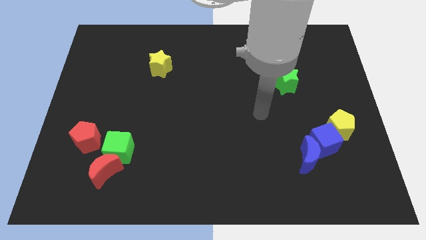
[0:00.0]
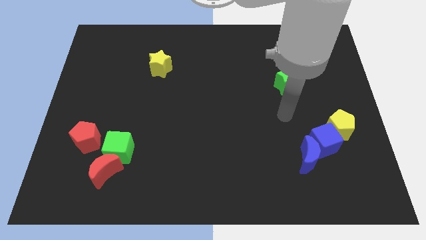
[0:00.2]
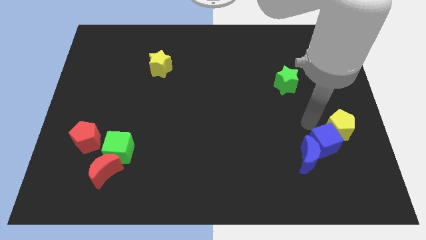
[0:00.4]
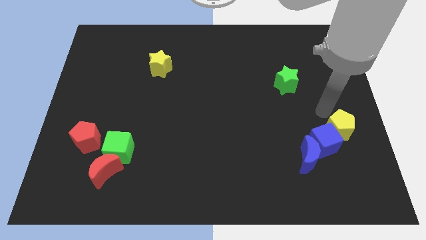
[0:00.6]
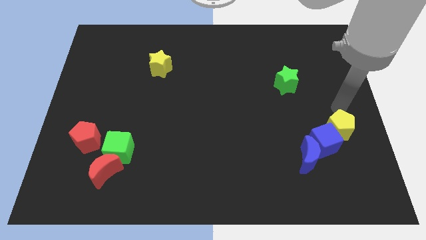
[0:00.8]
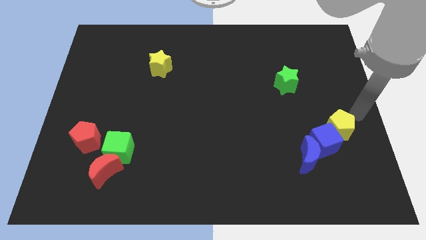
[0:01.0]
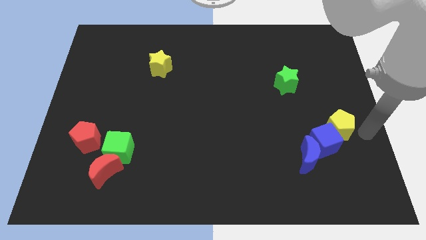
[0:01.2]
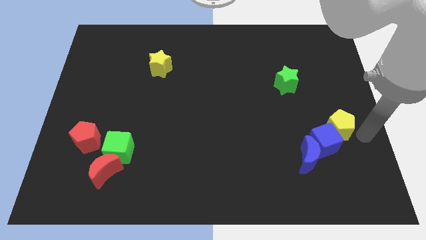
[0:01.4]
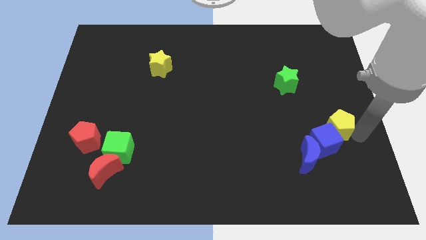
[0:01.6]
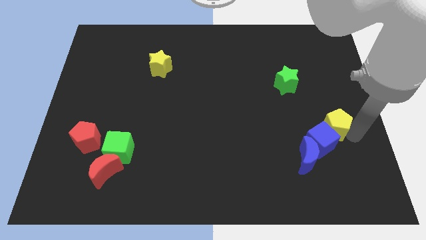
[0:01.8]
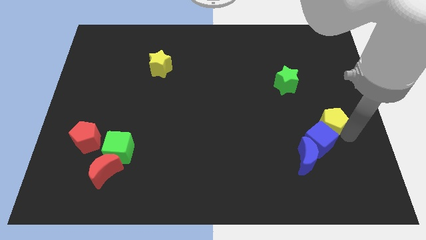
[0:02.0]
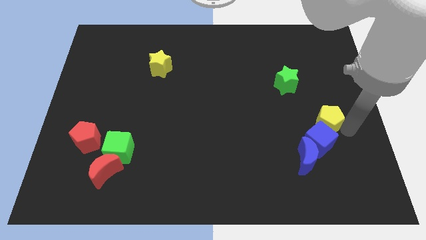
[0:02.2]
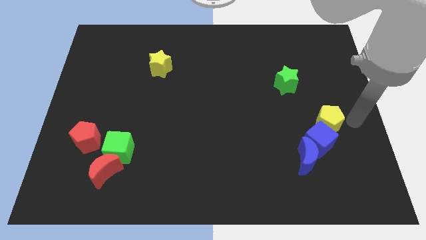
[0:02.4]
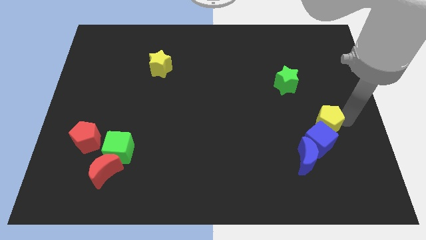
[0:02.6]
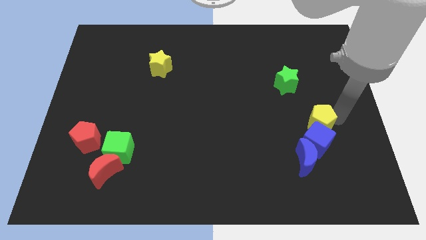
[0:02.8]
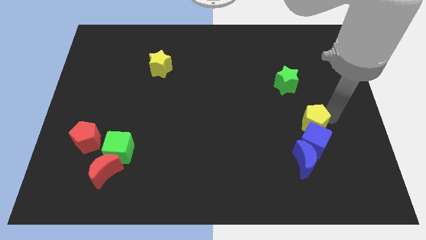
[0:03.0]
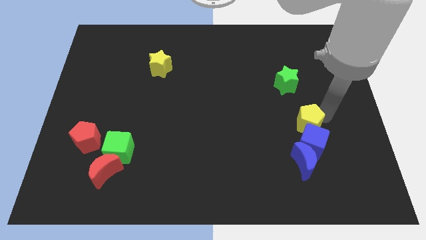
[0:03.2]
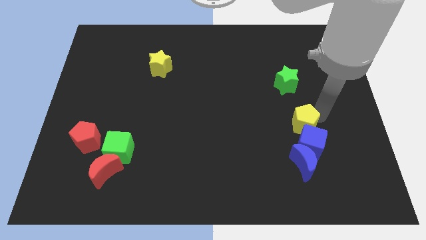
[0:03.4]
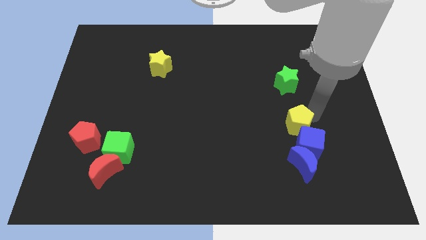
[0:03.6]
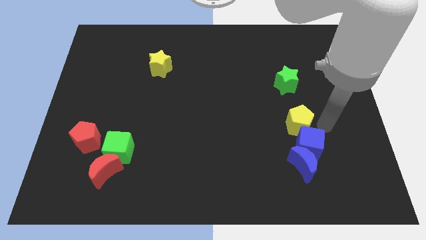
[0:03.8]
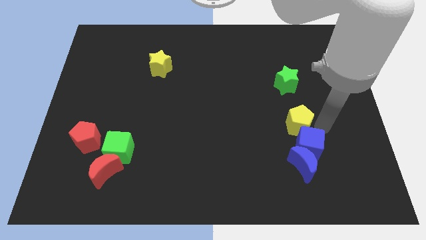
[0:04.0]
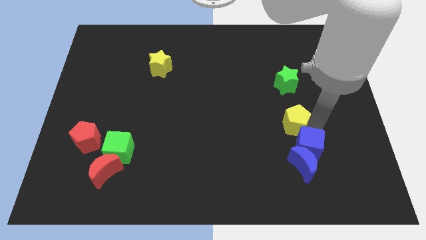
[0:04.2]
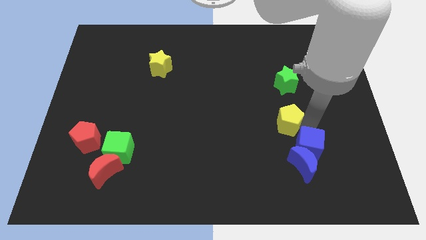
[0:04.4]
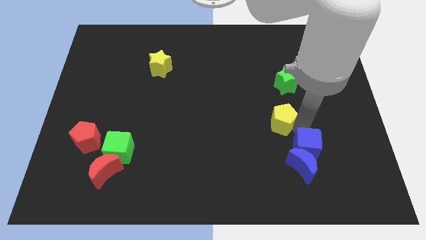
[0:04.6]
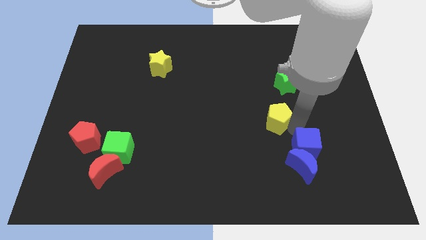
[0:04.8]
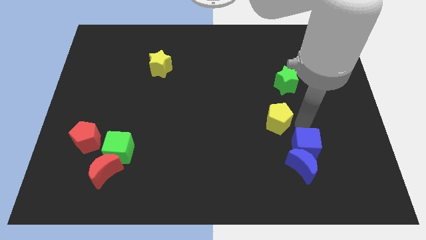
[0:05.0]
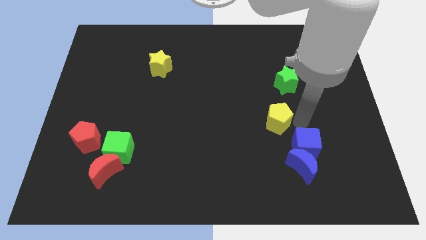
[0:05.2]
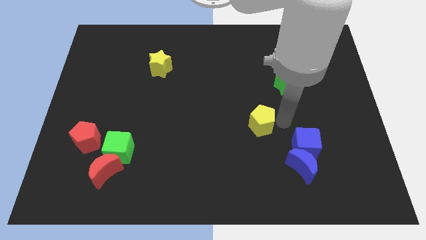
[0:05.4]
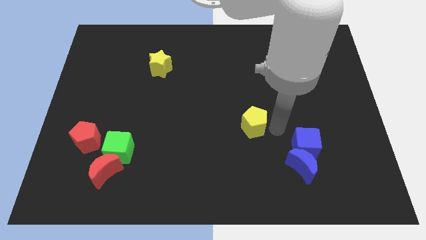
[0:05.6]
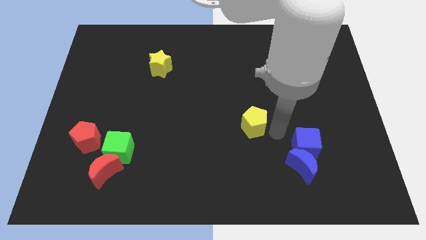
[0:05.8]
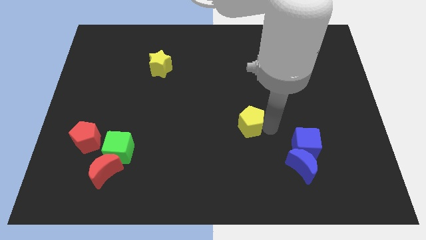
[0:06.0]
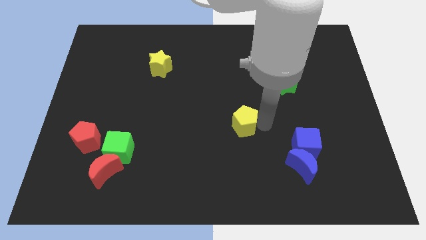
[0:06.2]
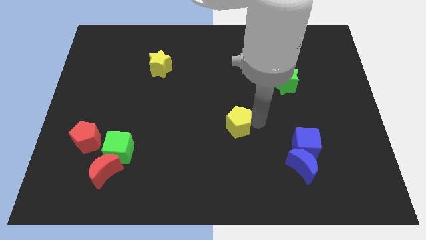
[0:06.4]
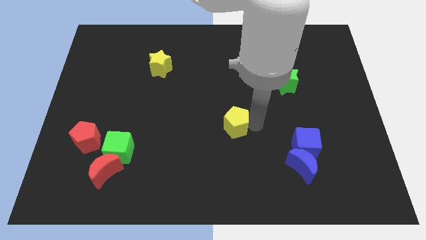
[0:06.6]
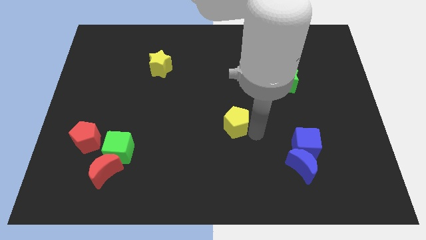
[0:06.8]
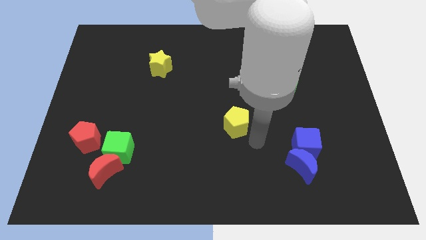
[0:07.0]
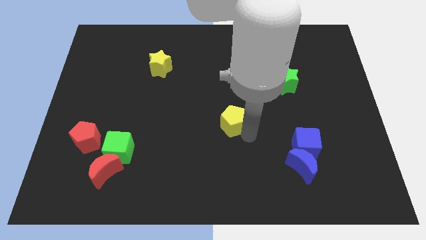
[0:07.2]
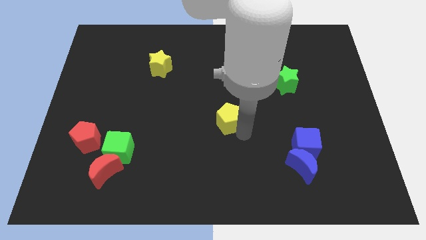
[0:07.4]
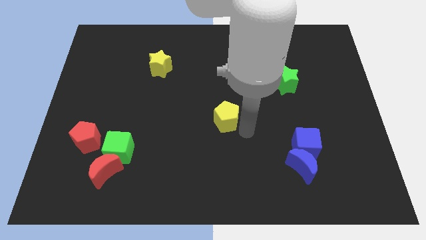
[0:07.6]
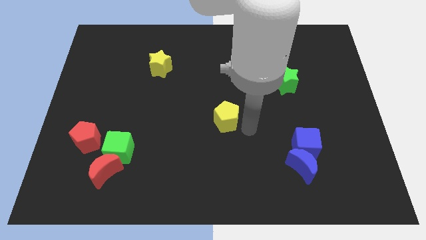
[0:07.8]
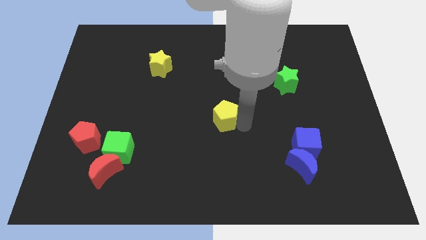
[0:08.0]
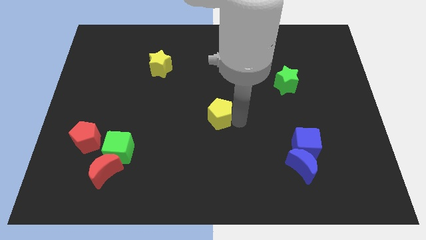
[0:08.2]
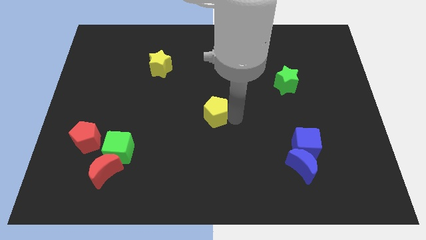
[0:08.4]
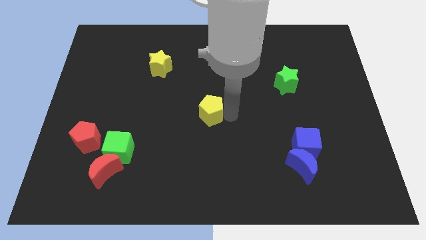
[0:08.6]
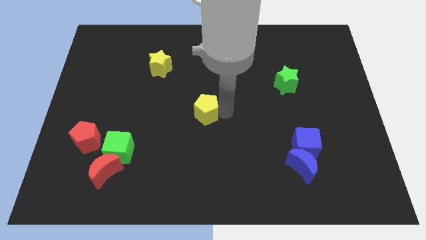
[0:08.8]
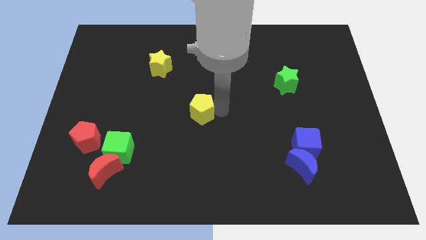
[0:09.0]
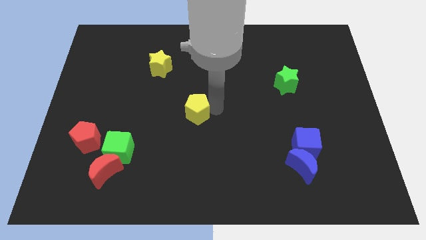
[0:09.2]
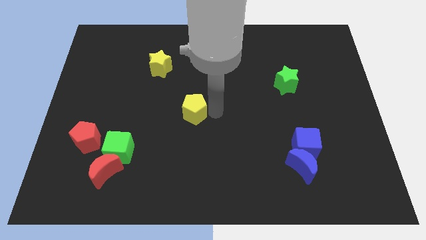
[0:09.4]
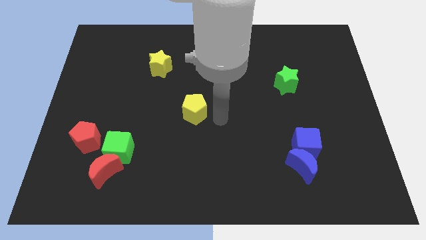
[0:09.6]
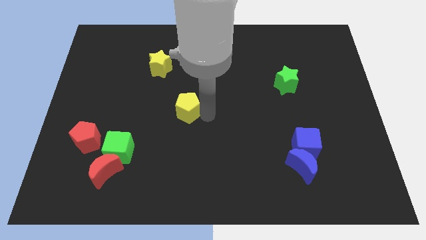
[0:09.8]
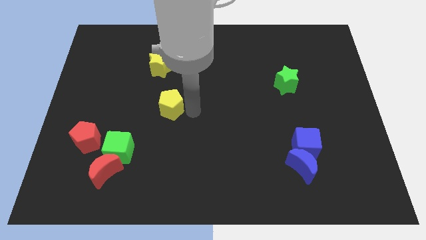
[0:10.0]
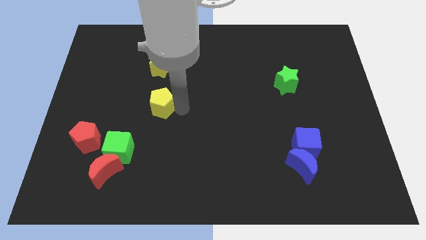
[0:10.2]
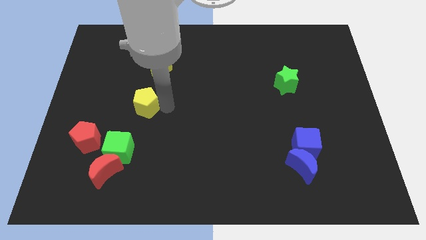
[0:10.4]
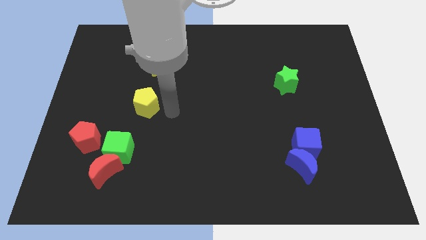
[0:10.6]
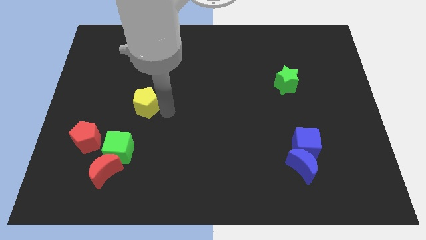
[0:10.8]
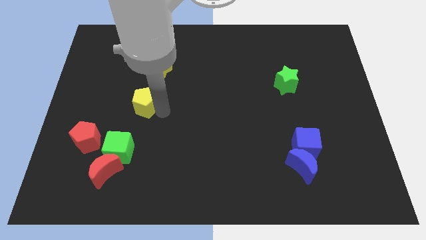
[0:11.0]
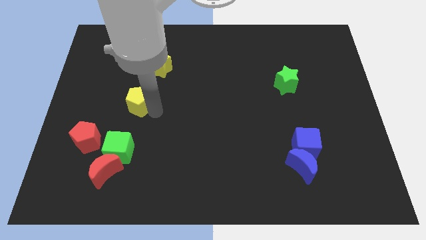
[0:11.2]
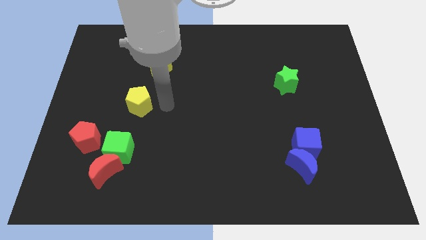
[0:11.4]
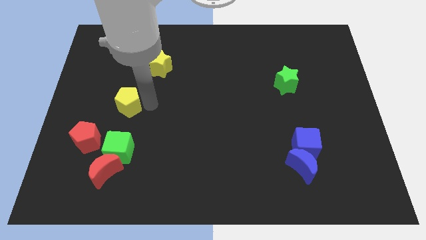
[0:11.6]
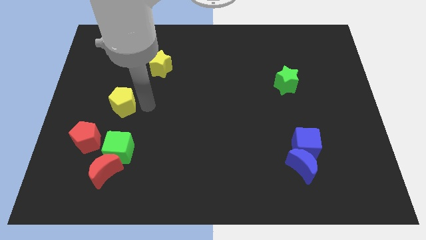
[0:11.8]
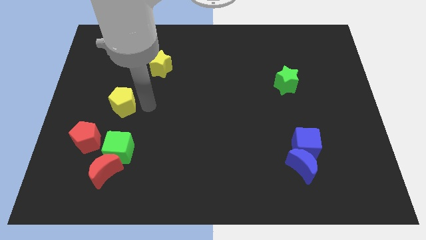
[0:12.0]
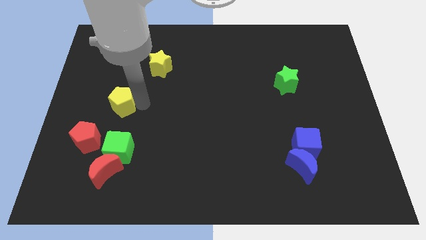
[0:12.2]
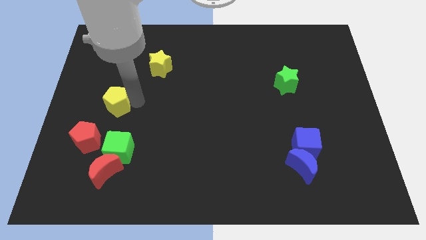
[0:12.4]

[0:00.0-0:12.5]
move the yellow pentagon above the red pentagon

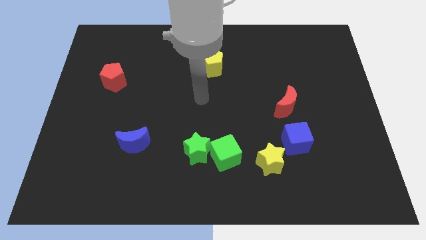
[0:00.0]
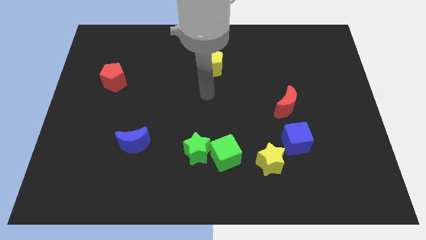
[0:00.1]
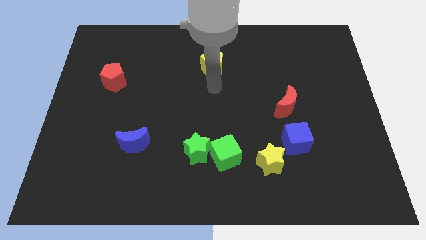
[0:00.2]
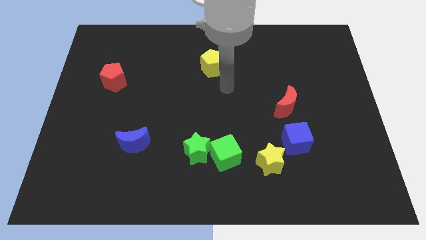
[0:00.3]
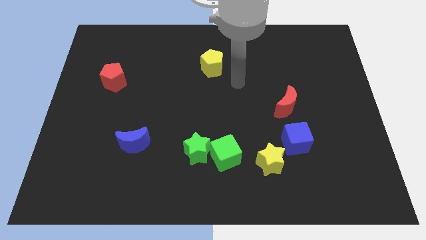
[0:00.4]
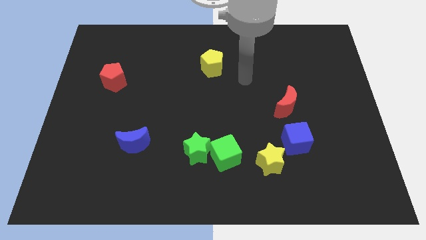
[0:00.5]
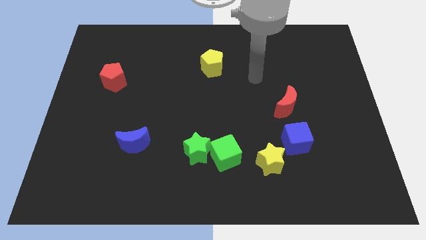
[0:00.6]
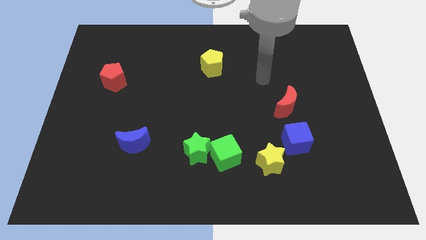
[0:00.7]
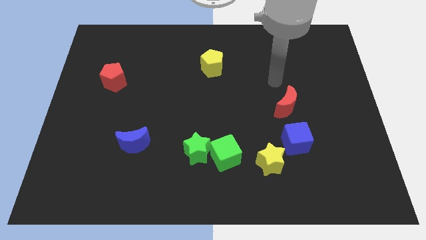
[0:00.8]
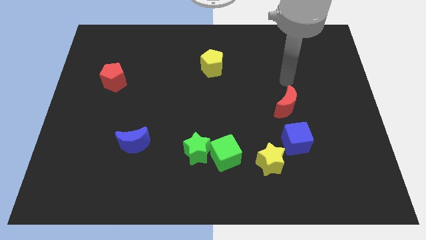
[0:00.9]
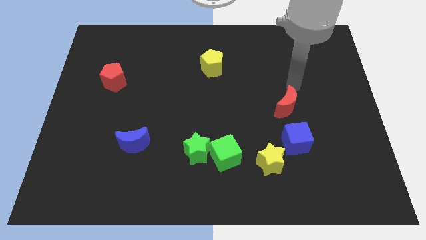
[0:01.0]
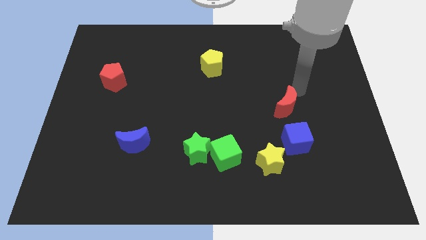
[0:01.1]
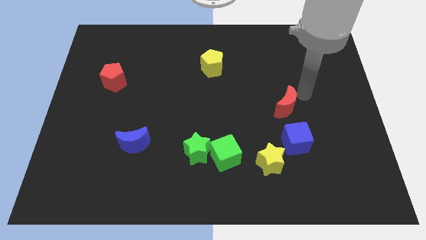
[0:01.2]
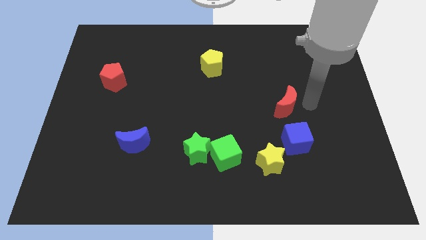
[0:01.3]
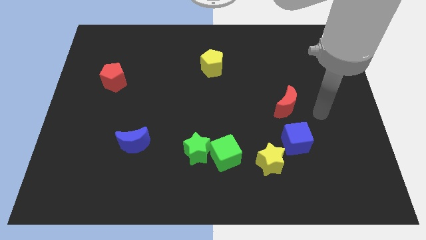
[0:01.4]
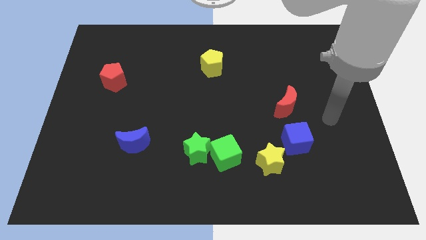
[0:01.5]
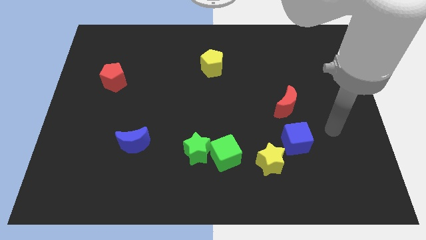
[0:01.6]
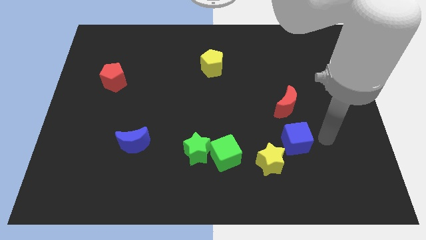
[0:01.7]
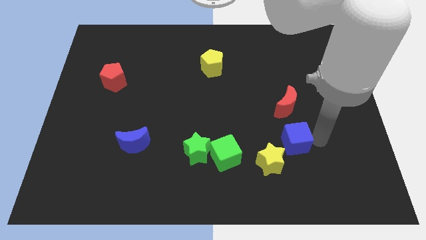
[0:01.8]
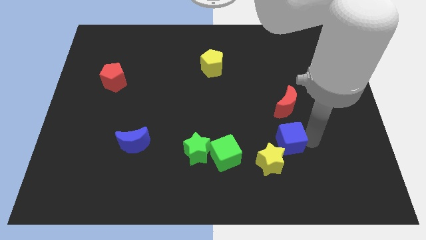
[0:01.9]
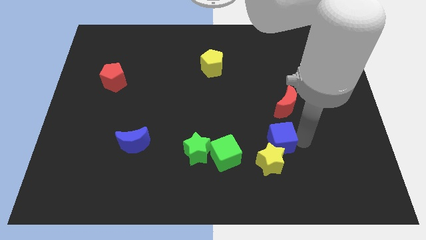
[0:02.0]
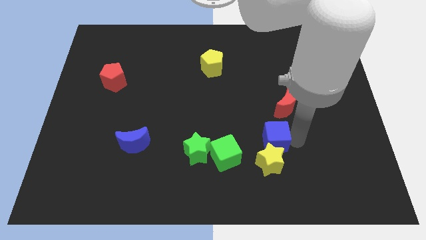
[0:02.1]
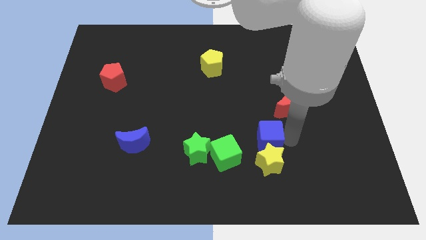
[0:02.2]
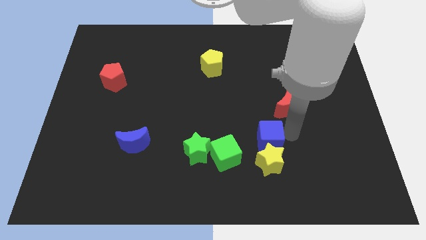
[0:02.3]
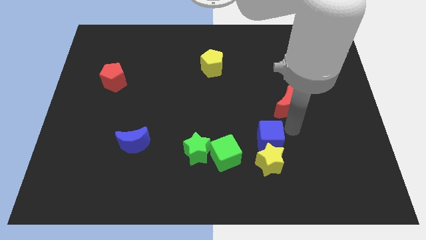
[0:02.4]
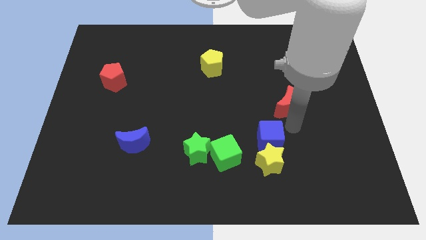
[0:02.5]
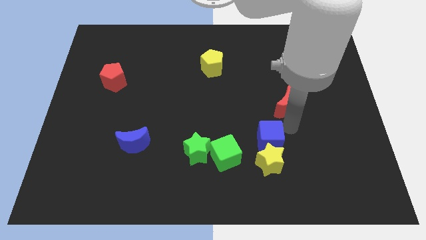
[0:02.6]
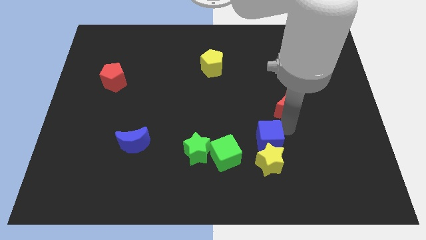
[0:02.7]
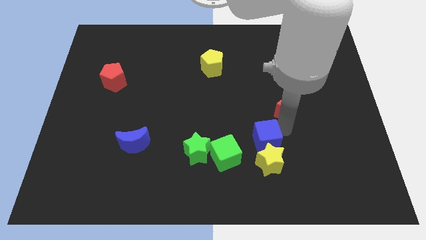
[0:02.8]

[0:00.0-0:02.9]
slide the blue cube just right of the green star
